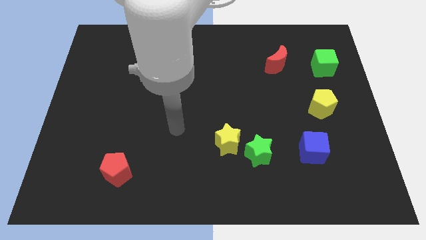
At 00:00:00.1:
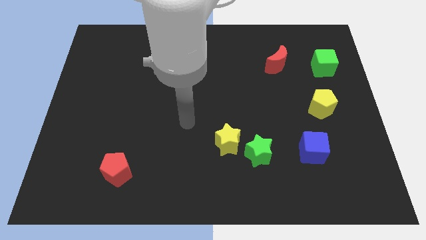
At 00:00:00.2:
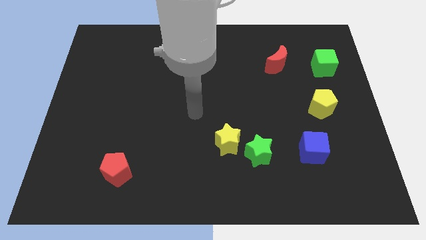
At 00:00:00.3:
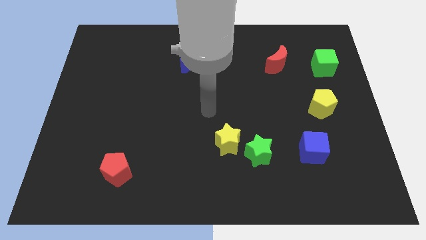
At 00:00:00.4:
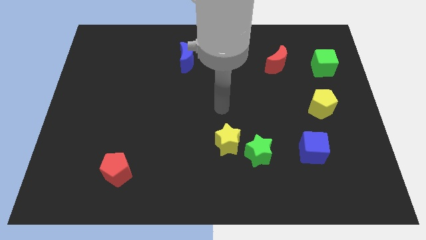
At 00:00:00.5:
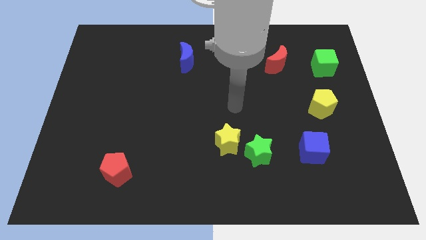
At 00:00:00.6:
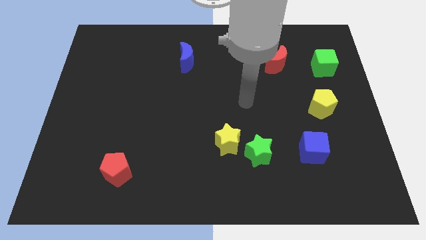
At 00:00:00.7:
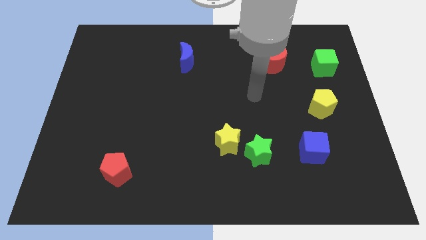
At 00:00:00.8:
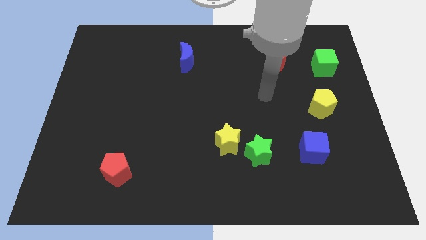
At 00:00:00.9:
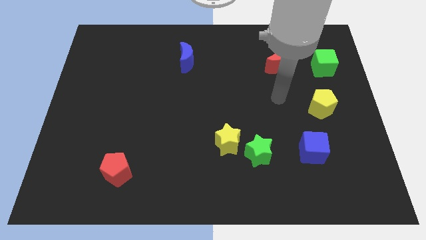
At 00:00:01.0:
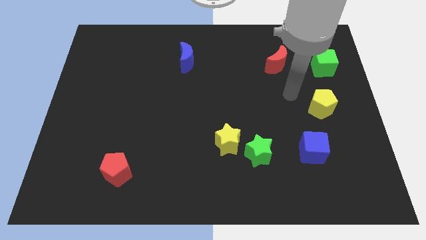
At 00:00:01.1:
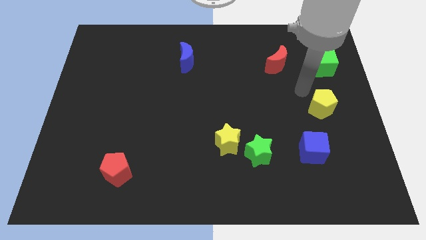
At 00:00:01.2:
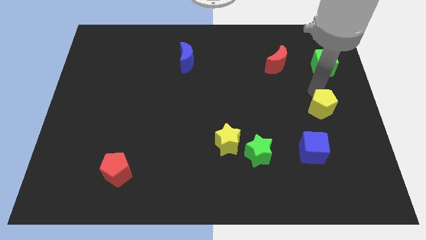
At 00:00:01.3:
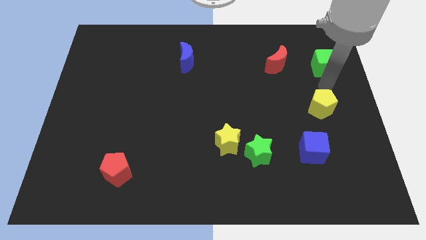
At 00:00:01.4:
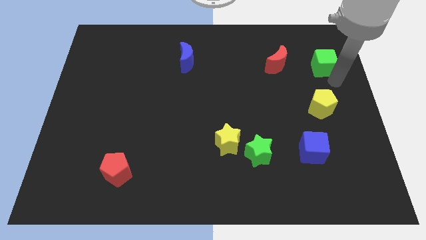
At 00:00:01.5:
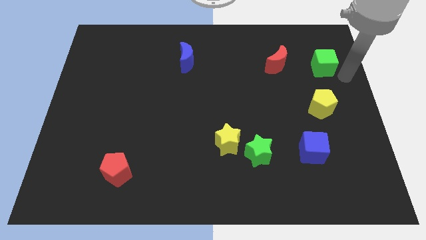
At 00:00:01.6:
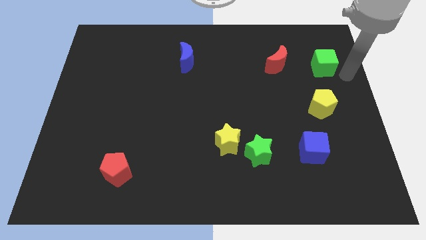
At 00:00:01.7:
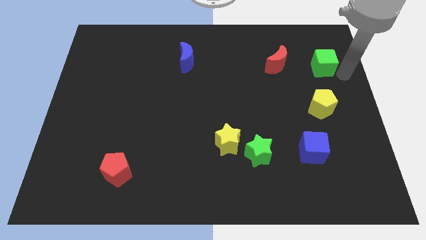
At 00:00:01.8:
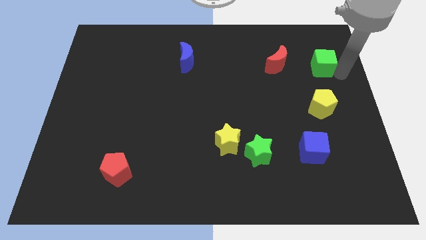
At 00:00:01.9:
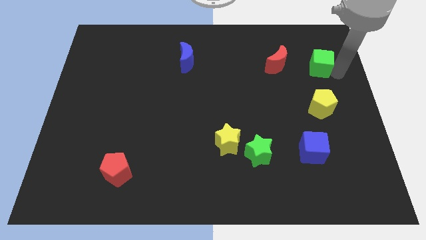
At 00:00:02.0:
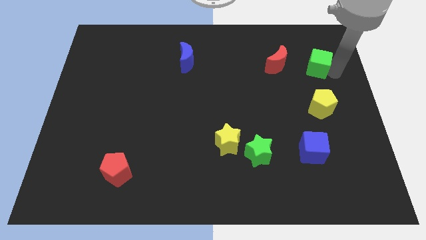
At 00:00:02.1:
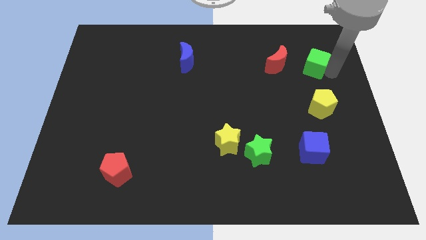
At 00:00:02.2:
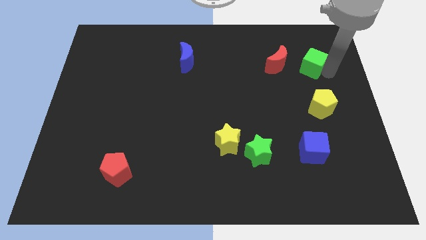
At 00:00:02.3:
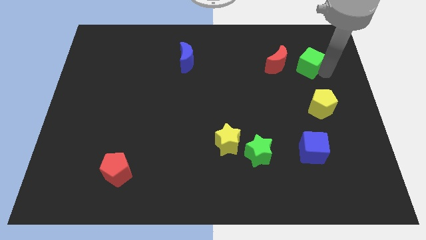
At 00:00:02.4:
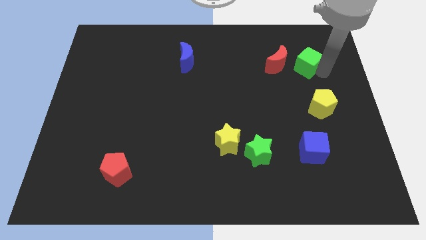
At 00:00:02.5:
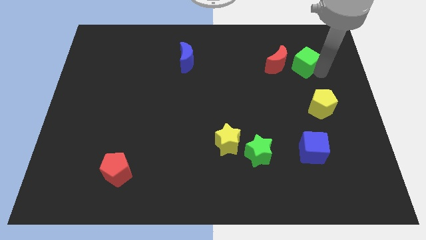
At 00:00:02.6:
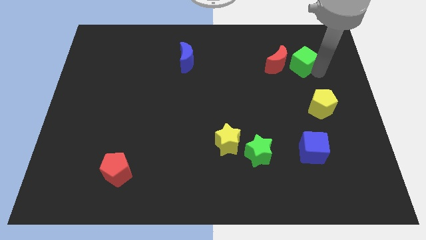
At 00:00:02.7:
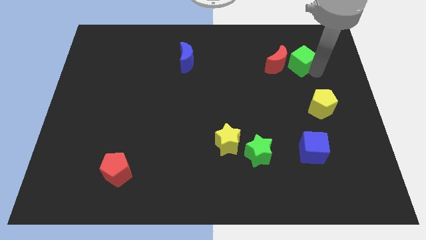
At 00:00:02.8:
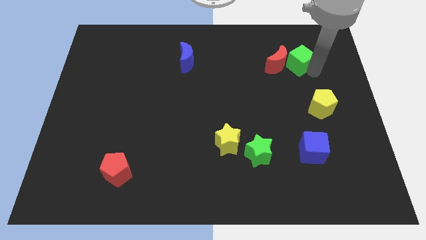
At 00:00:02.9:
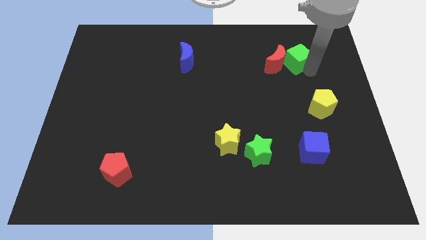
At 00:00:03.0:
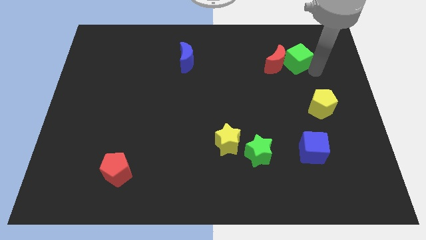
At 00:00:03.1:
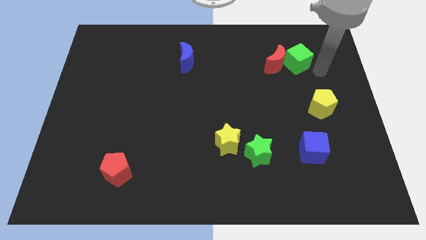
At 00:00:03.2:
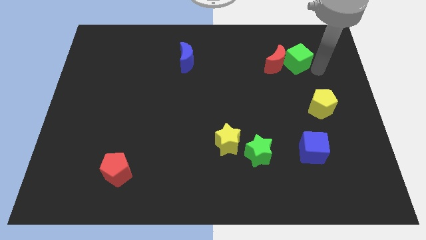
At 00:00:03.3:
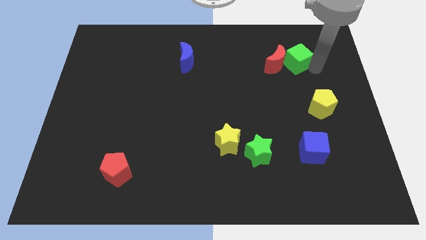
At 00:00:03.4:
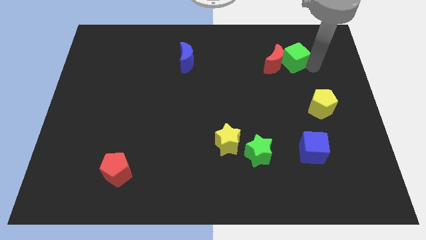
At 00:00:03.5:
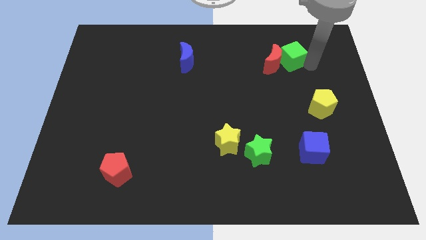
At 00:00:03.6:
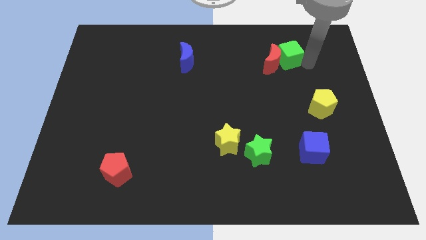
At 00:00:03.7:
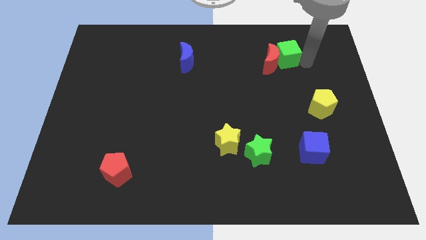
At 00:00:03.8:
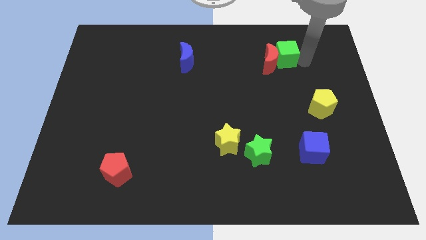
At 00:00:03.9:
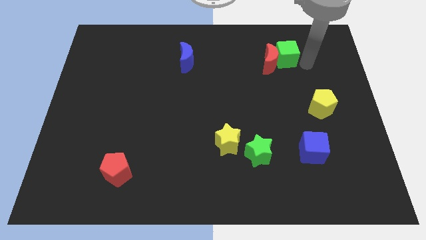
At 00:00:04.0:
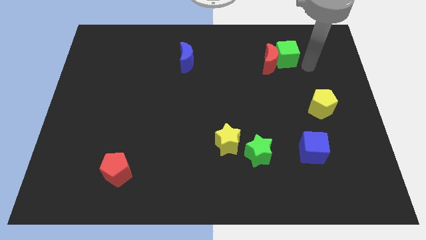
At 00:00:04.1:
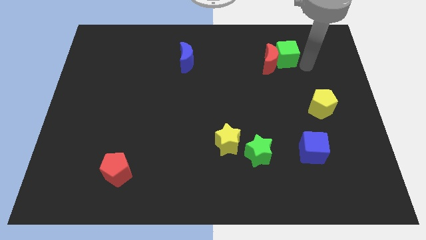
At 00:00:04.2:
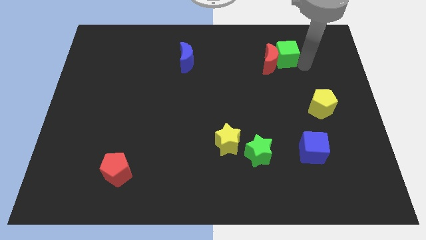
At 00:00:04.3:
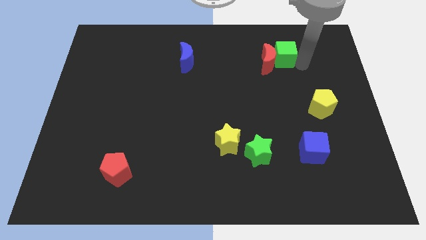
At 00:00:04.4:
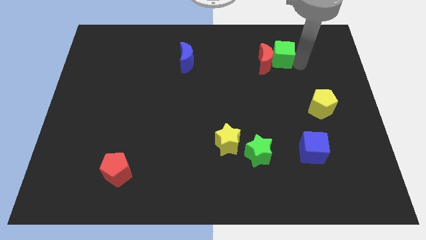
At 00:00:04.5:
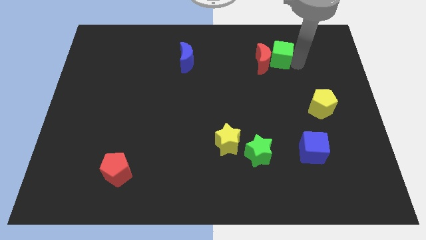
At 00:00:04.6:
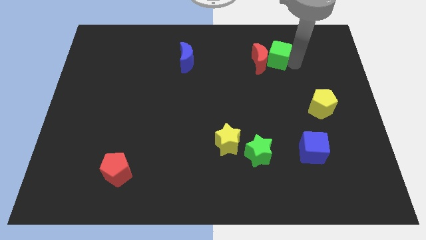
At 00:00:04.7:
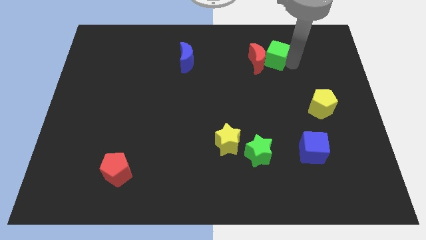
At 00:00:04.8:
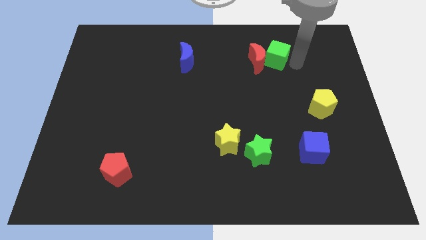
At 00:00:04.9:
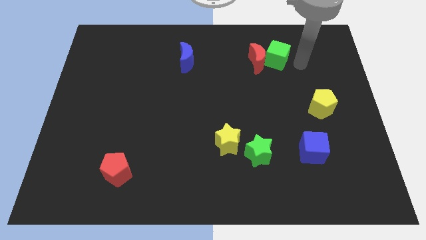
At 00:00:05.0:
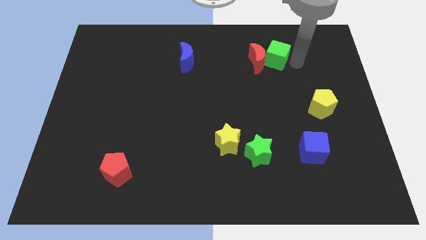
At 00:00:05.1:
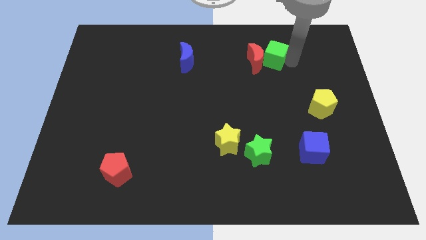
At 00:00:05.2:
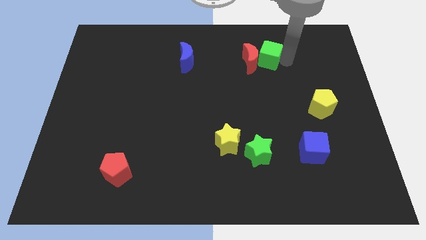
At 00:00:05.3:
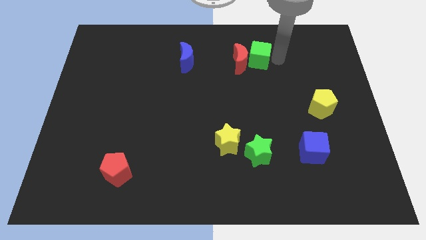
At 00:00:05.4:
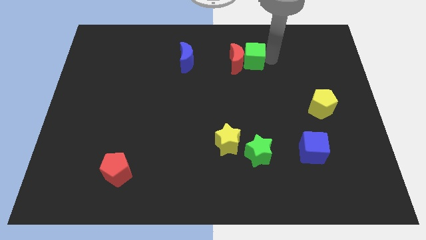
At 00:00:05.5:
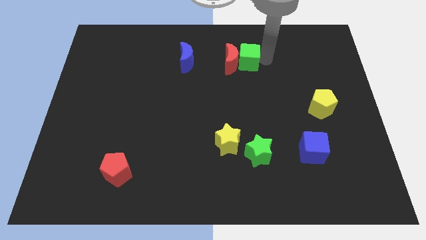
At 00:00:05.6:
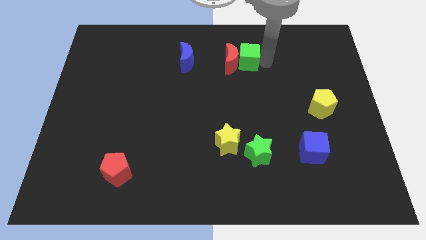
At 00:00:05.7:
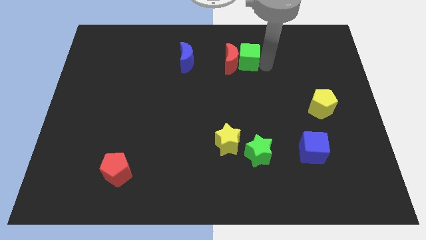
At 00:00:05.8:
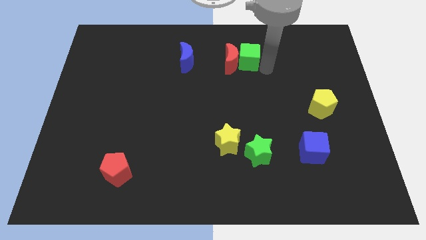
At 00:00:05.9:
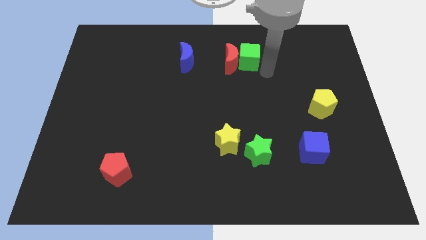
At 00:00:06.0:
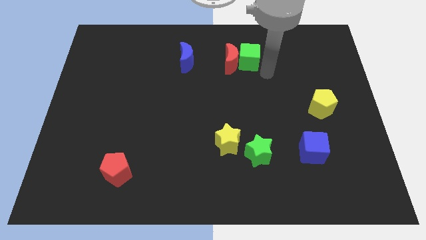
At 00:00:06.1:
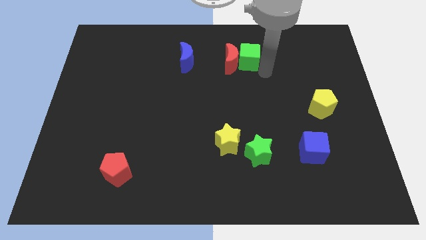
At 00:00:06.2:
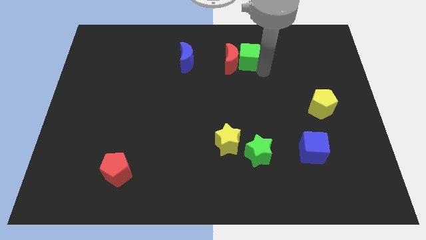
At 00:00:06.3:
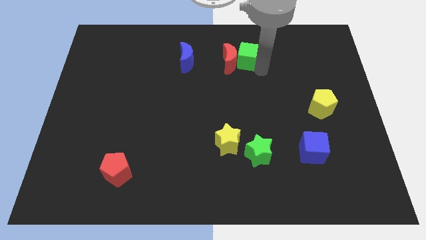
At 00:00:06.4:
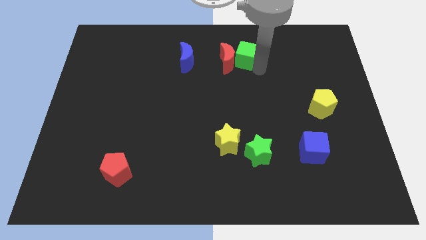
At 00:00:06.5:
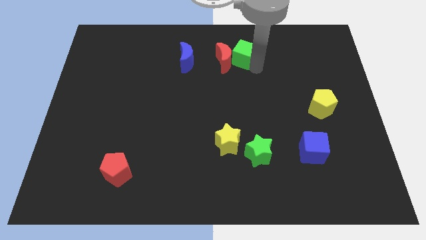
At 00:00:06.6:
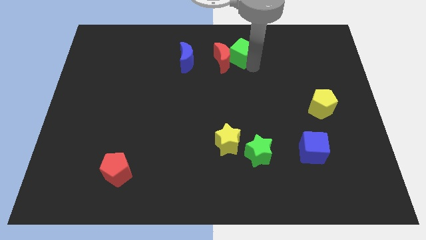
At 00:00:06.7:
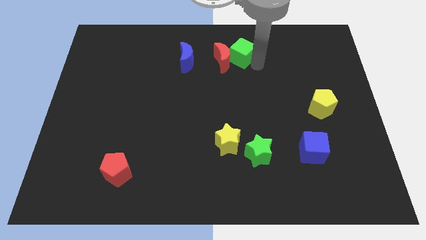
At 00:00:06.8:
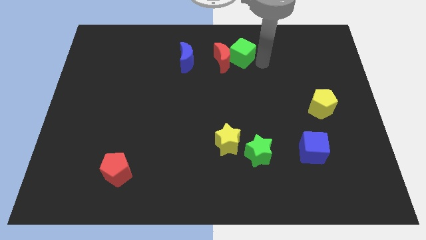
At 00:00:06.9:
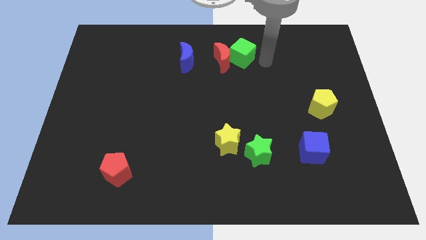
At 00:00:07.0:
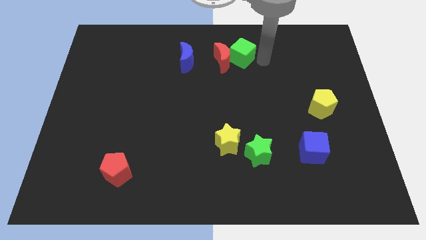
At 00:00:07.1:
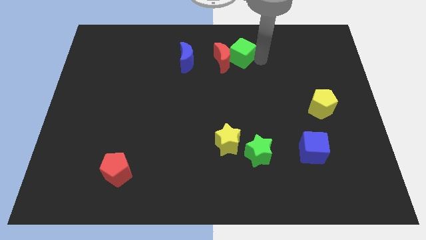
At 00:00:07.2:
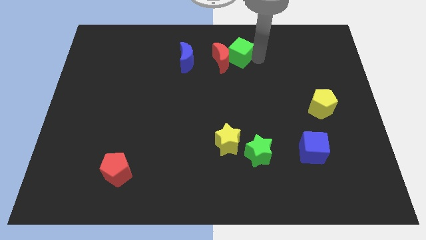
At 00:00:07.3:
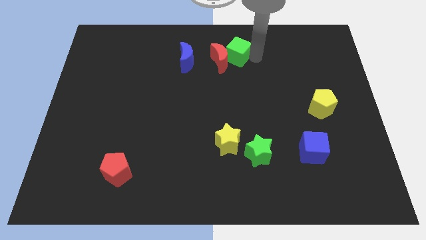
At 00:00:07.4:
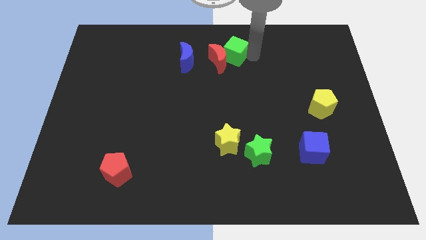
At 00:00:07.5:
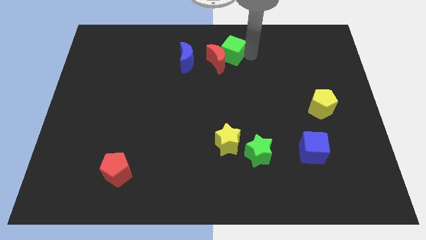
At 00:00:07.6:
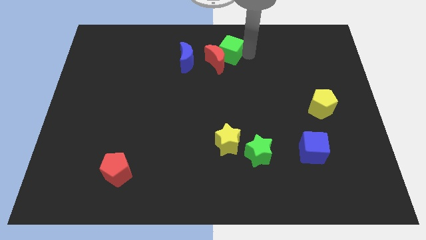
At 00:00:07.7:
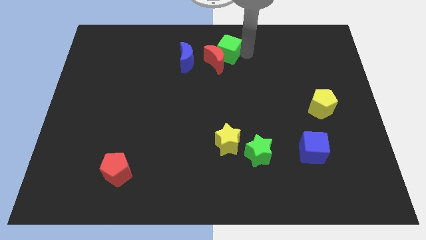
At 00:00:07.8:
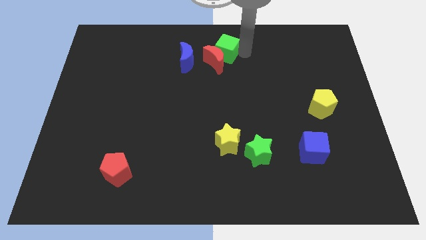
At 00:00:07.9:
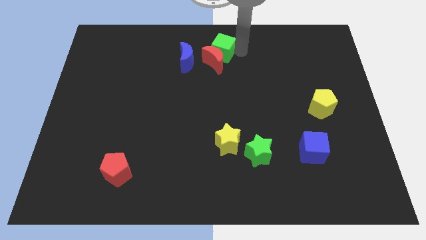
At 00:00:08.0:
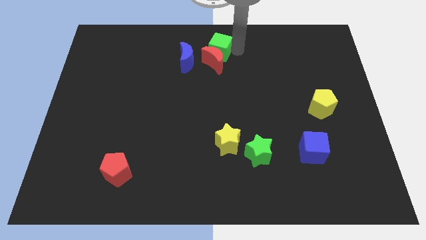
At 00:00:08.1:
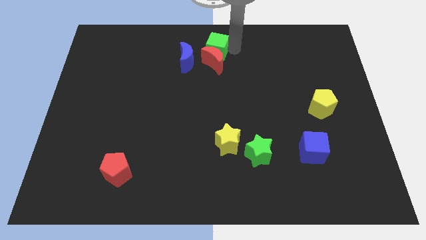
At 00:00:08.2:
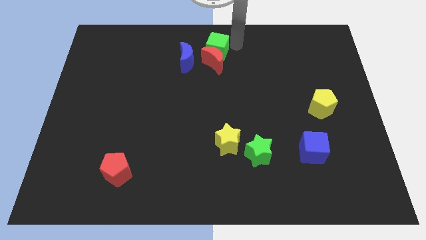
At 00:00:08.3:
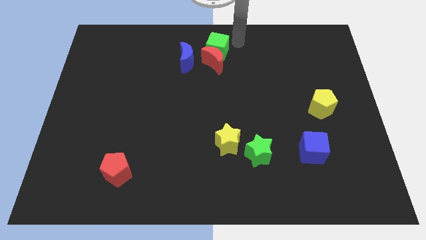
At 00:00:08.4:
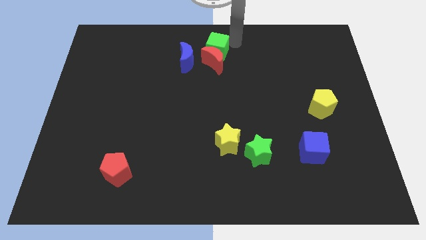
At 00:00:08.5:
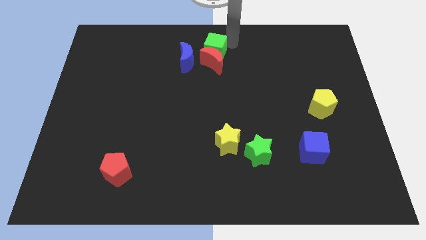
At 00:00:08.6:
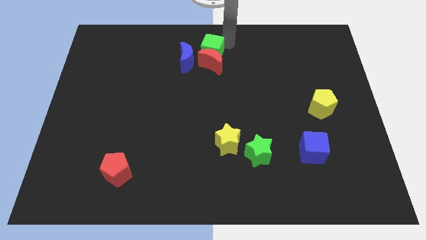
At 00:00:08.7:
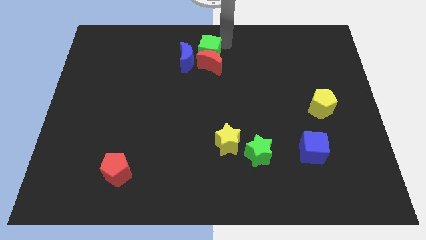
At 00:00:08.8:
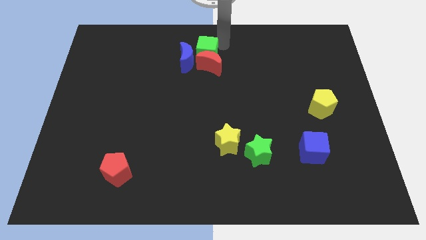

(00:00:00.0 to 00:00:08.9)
slide the green cube to the blue moon
